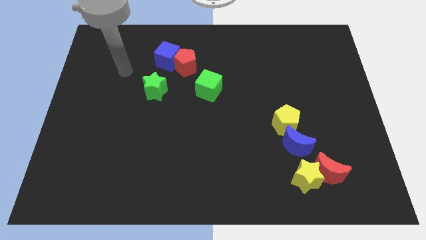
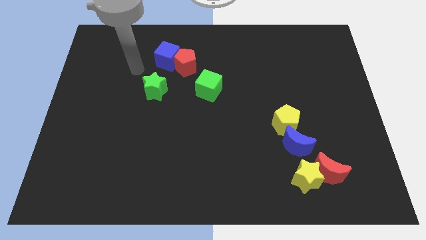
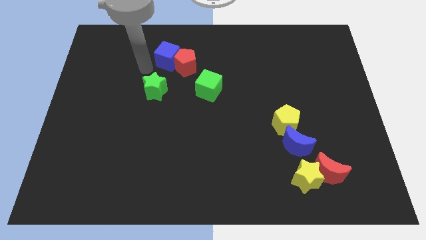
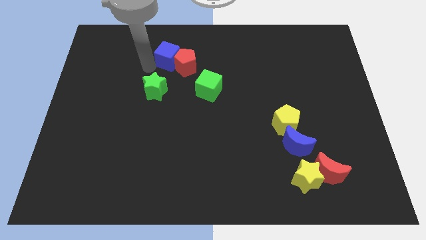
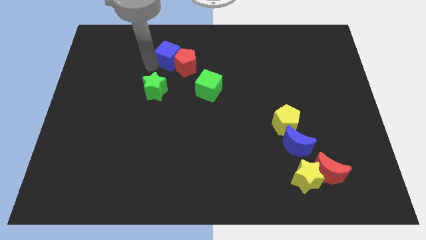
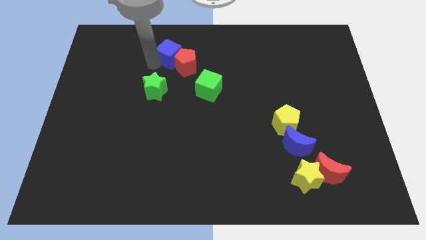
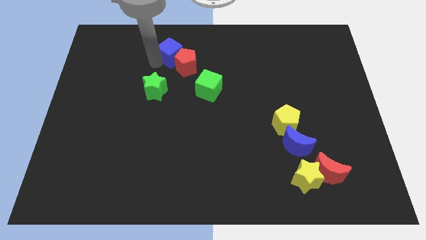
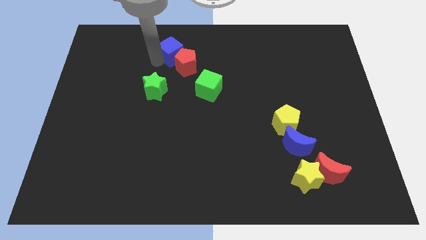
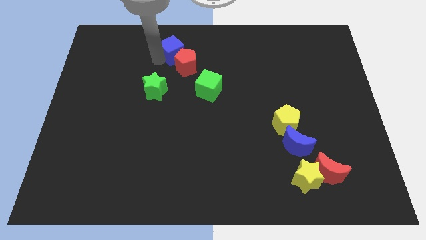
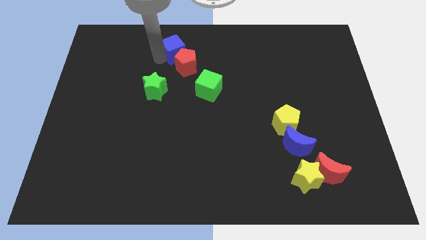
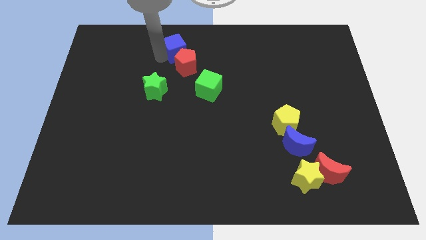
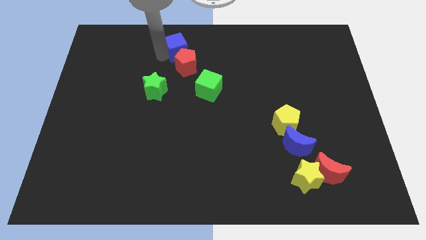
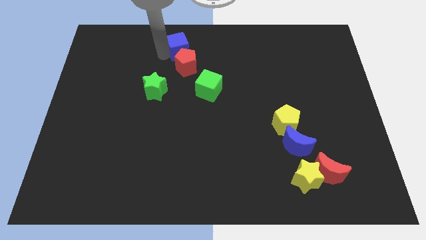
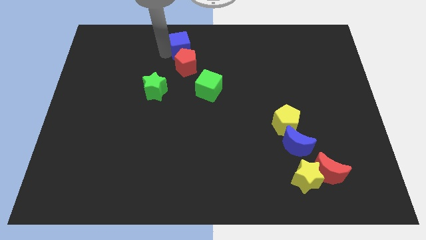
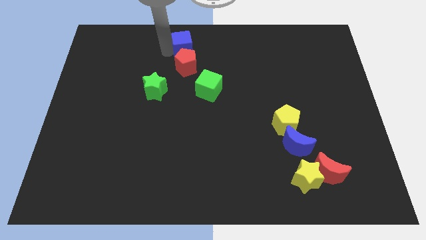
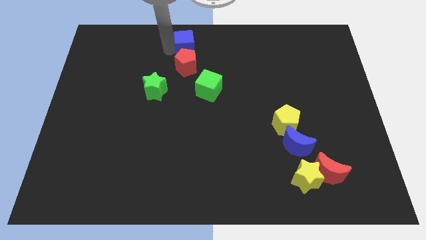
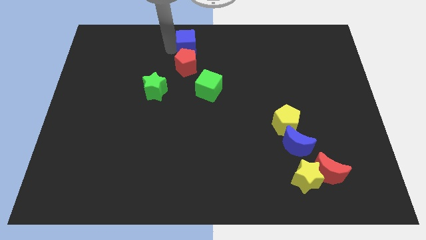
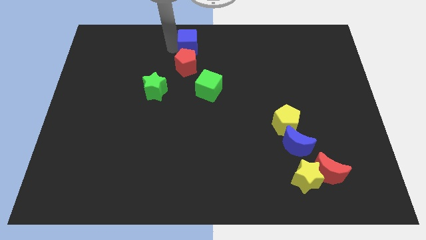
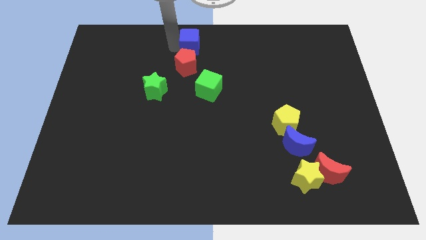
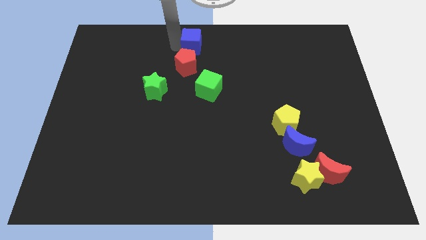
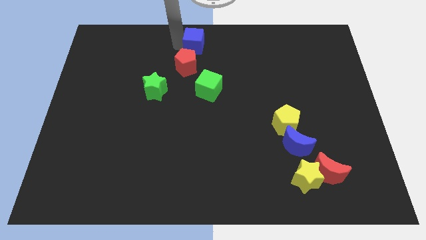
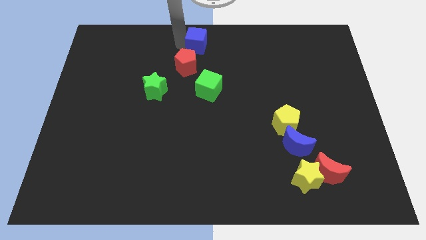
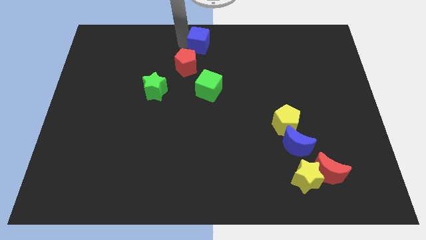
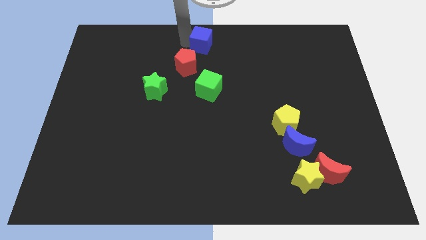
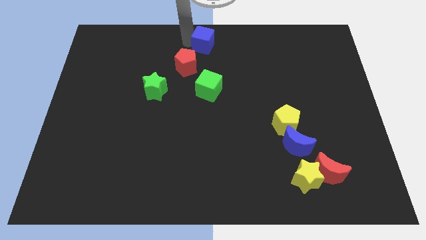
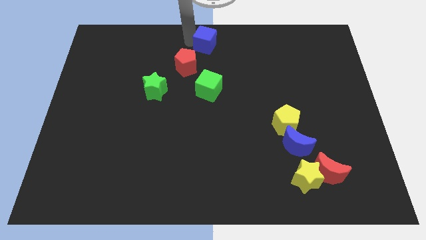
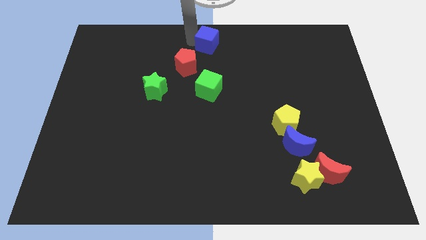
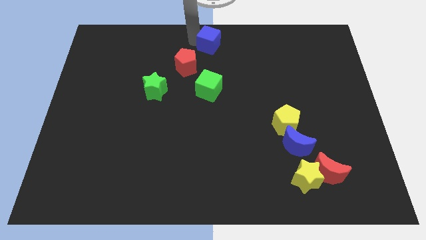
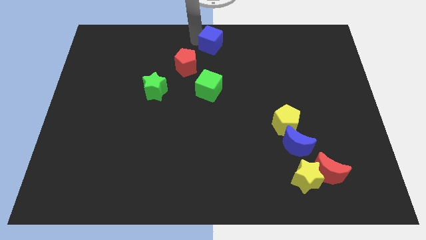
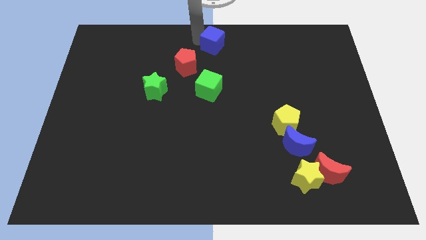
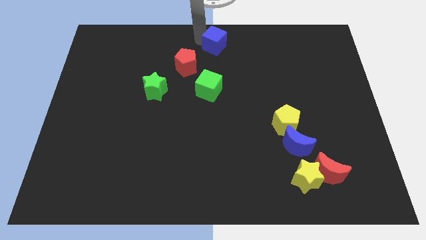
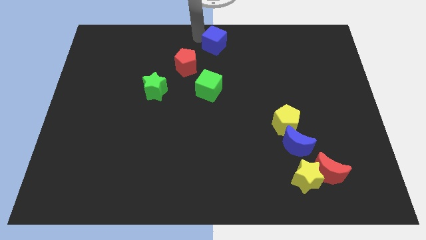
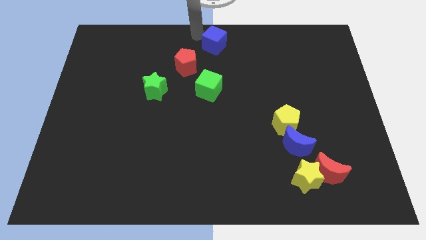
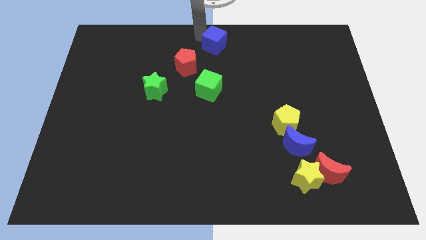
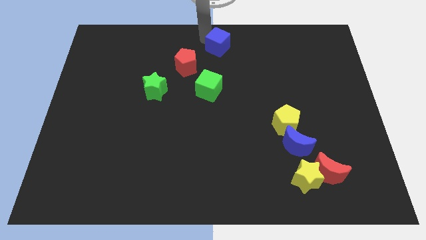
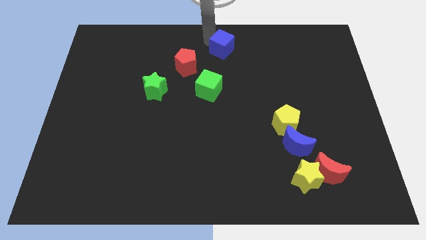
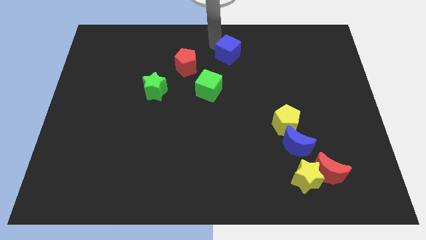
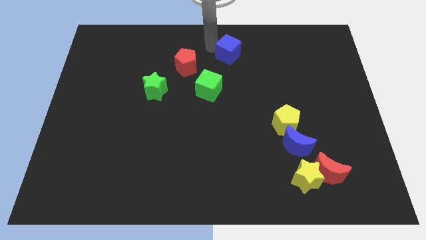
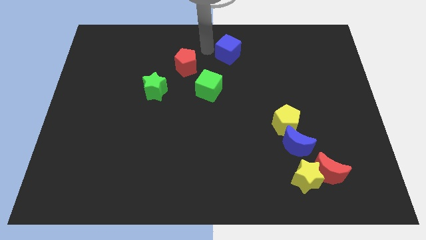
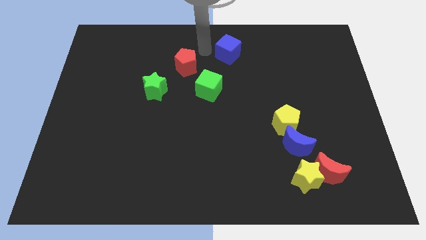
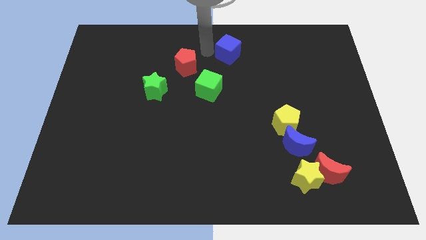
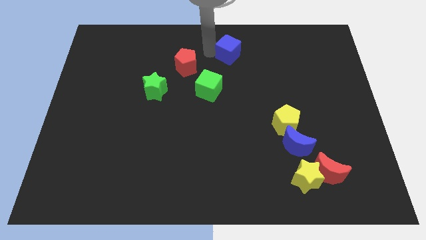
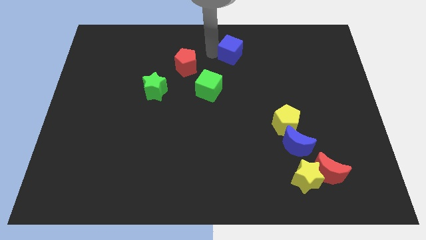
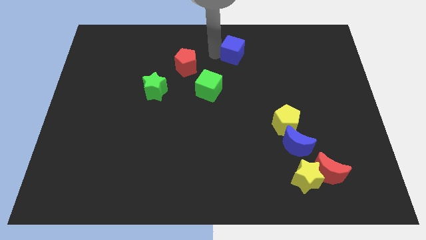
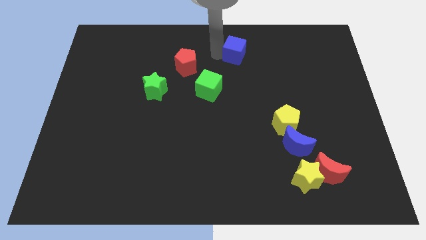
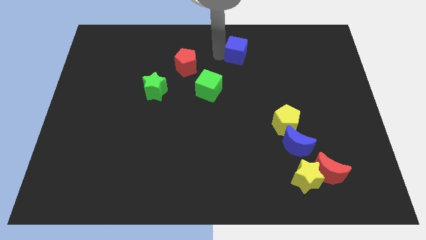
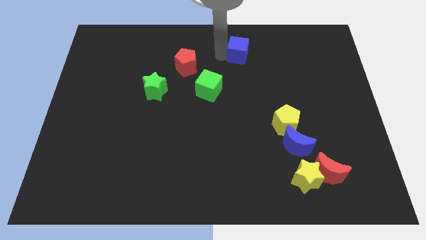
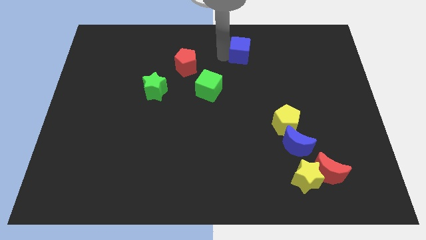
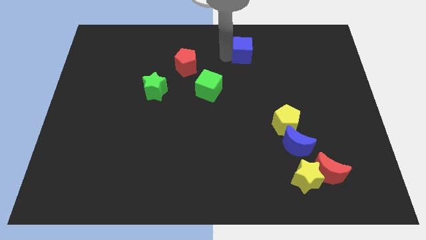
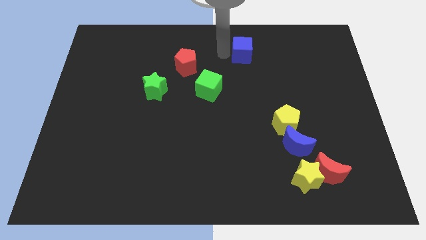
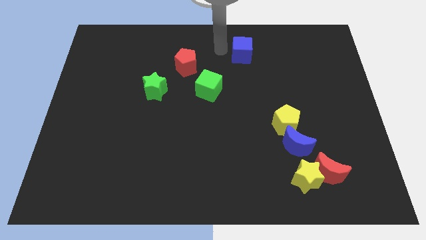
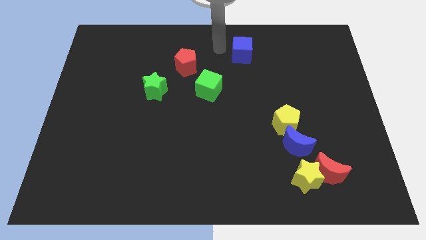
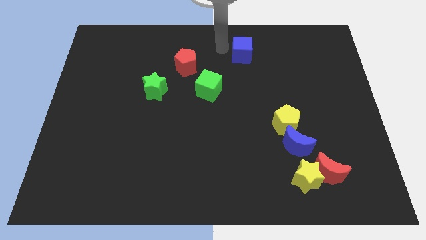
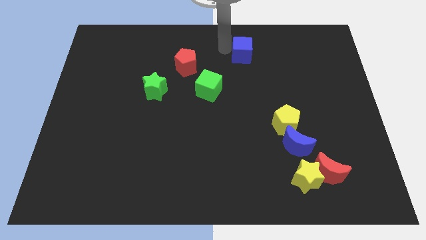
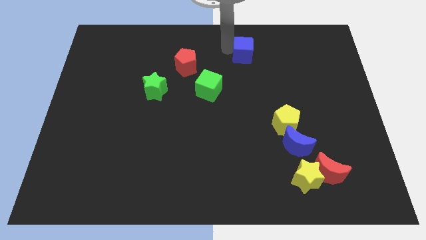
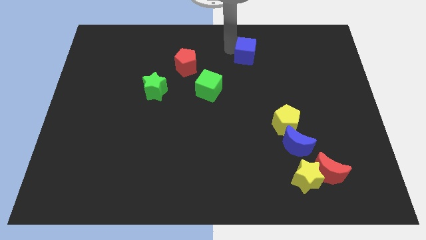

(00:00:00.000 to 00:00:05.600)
push the blue cube right

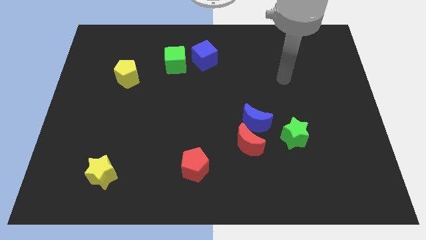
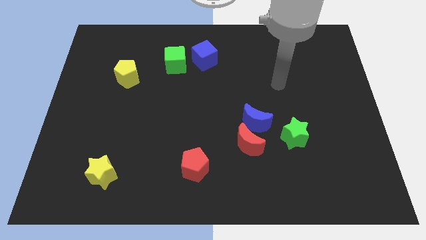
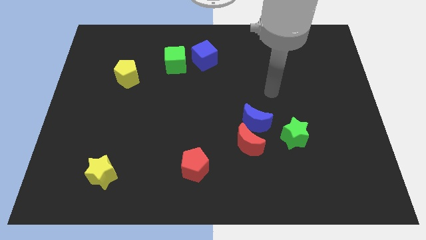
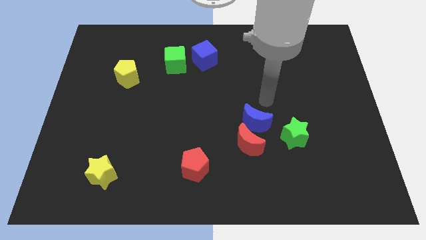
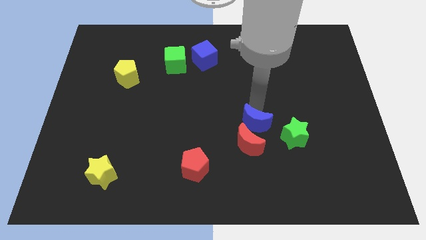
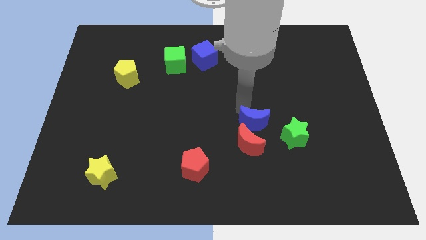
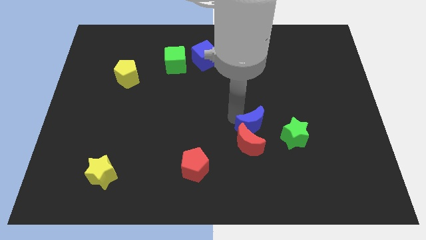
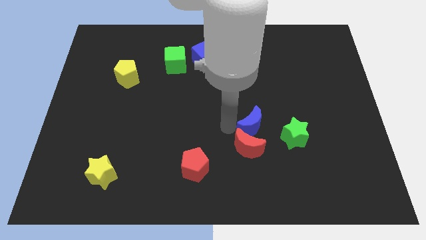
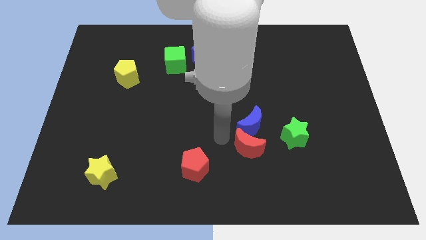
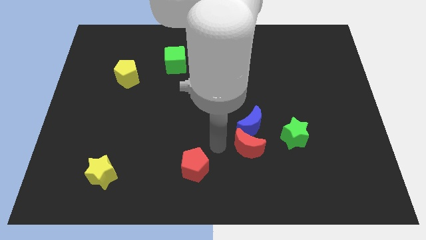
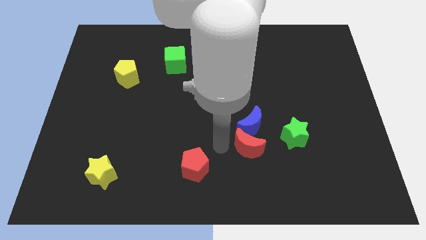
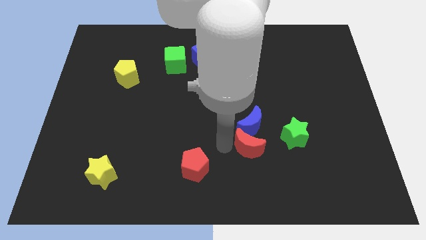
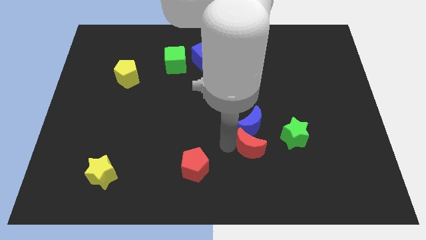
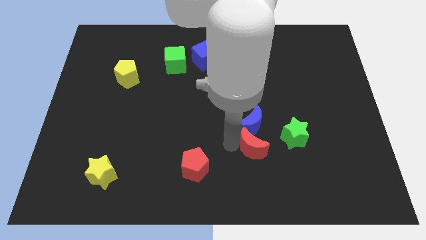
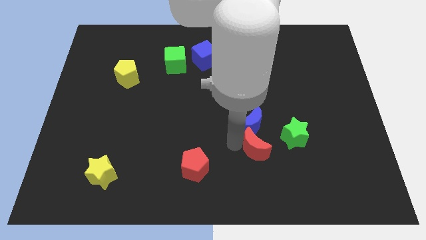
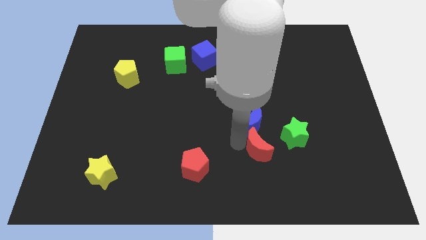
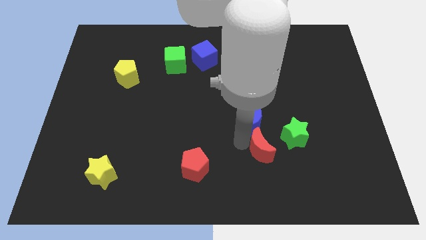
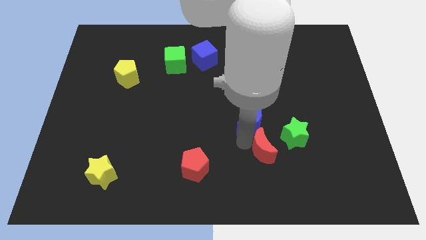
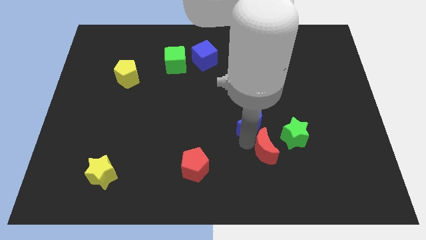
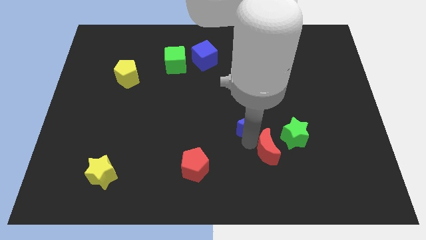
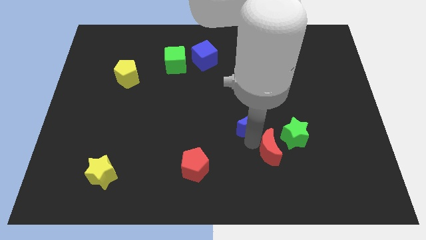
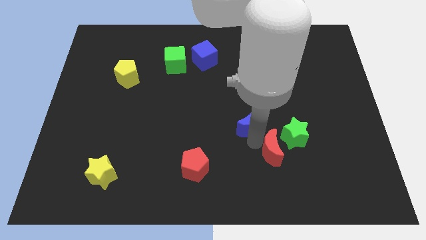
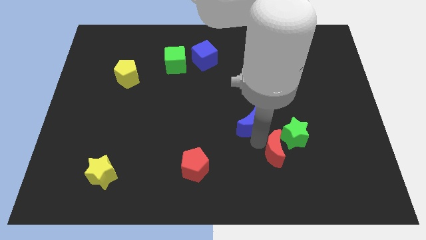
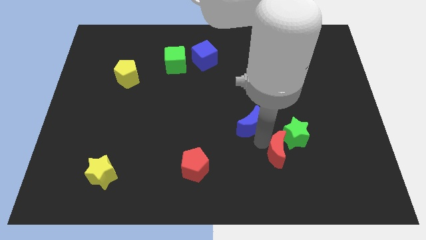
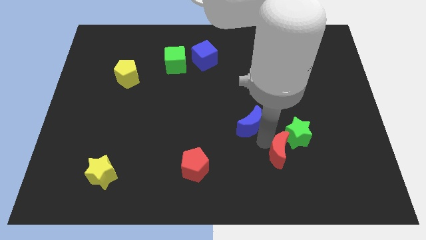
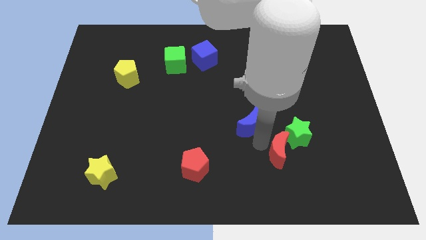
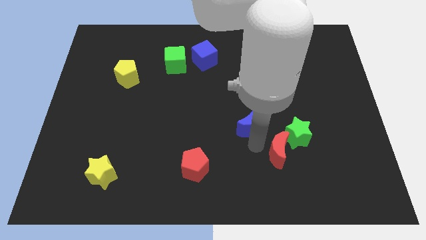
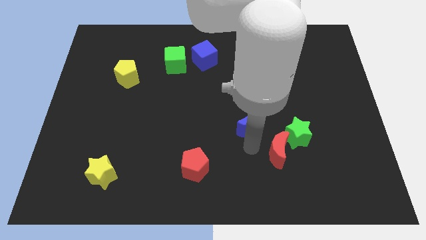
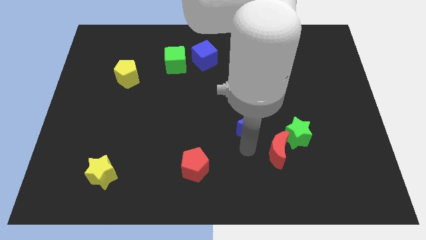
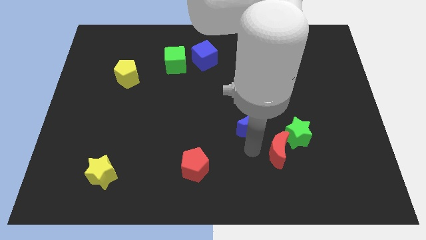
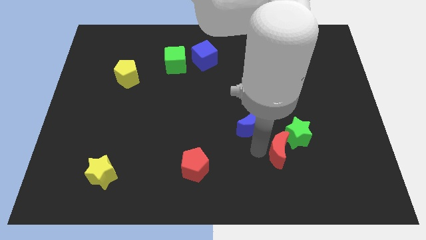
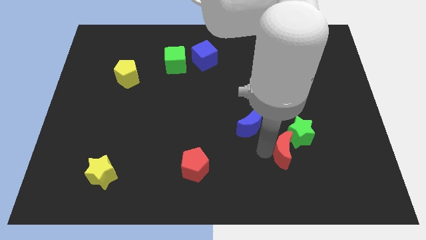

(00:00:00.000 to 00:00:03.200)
move the red moon right a little bit
